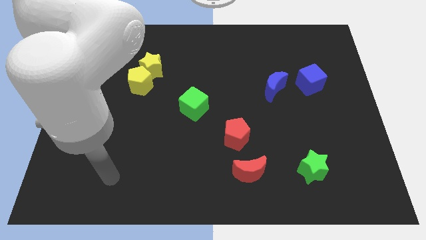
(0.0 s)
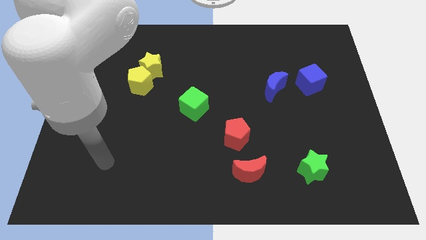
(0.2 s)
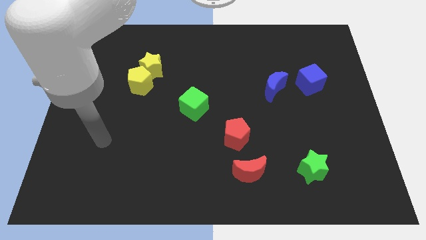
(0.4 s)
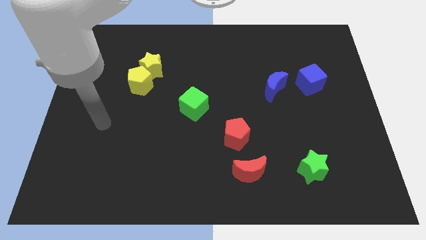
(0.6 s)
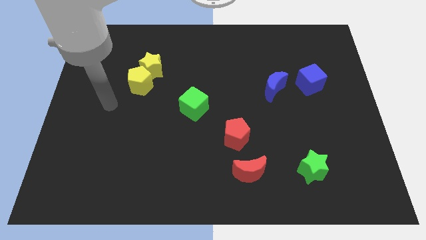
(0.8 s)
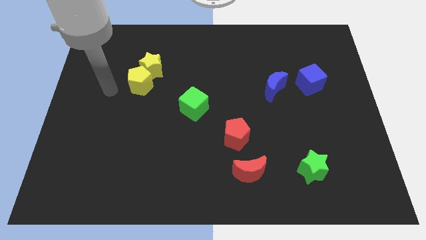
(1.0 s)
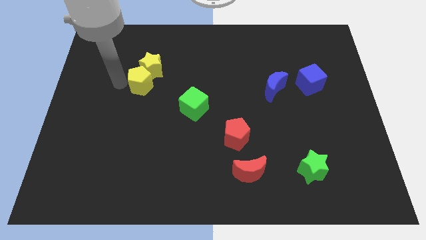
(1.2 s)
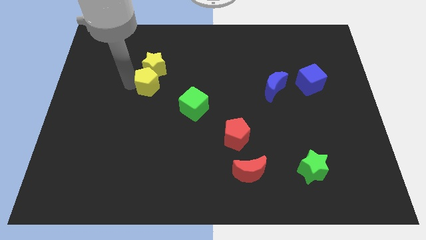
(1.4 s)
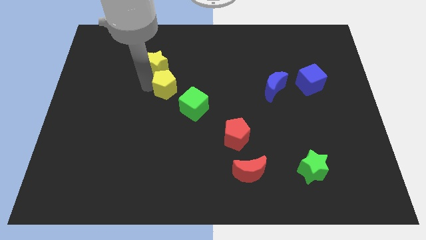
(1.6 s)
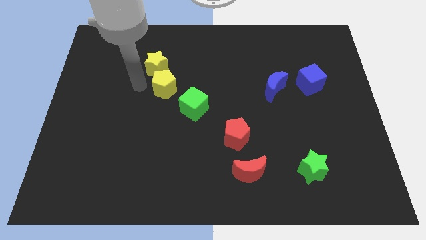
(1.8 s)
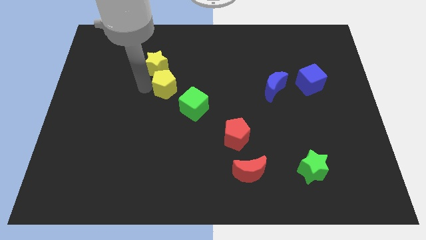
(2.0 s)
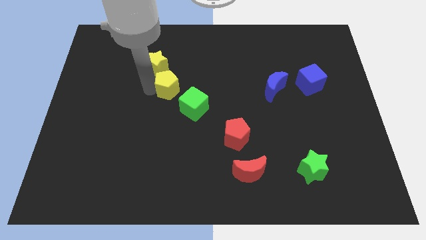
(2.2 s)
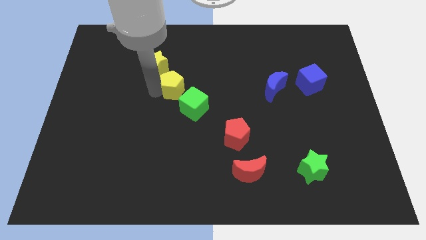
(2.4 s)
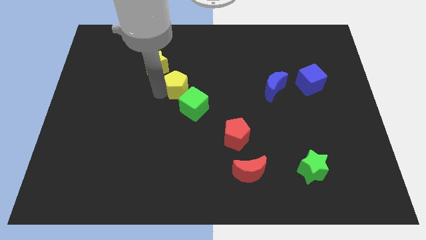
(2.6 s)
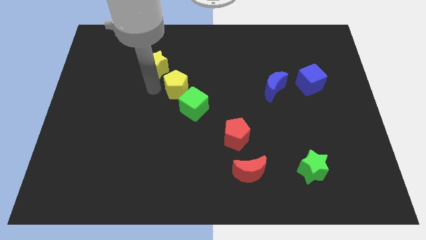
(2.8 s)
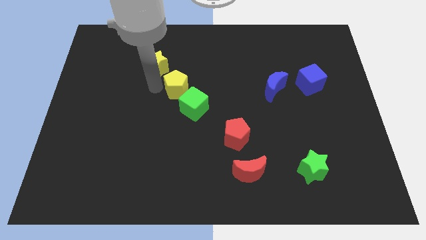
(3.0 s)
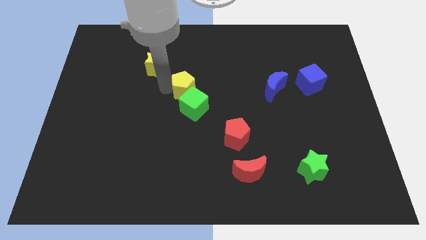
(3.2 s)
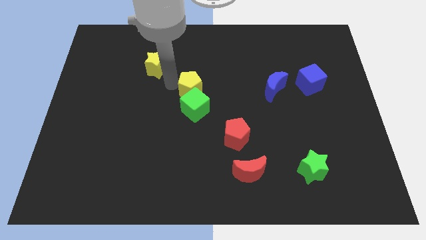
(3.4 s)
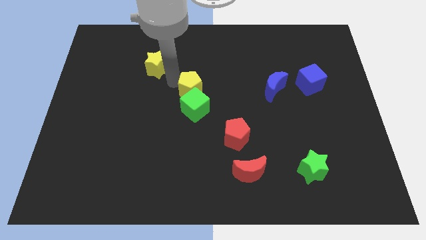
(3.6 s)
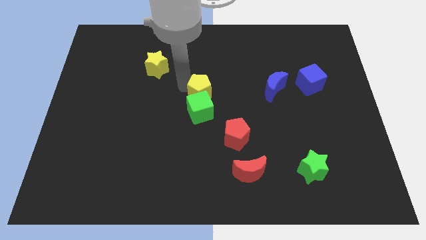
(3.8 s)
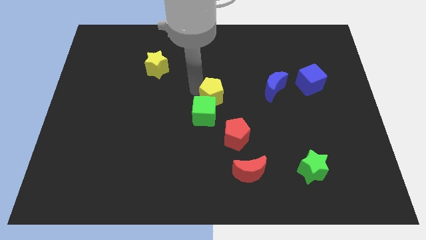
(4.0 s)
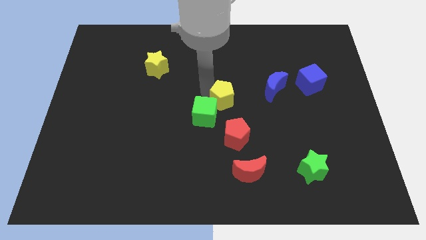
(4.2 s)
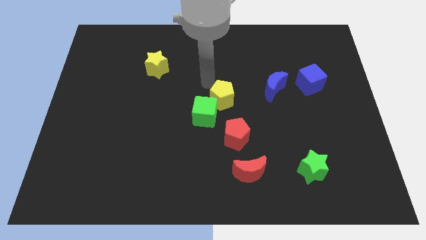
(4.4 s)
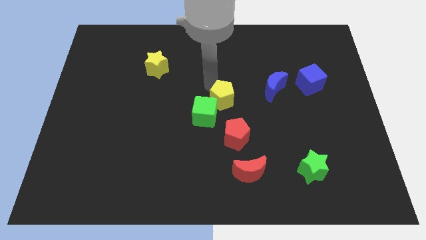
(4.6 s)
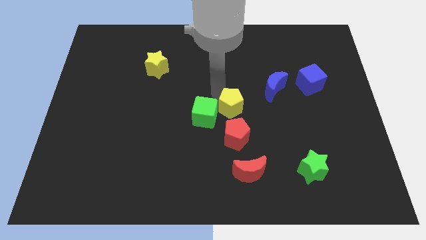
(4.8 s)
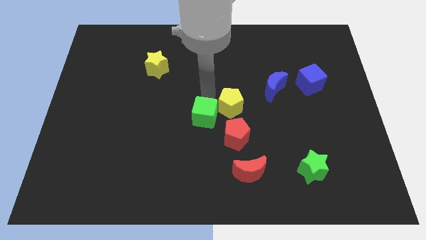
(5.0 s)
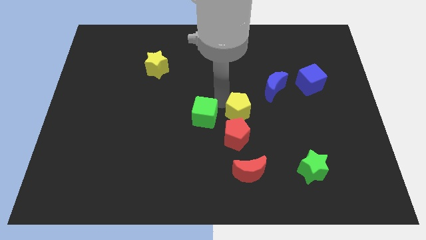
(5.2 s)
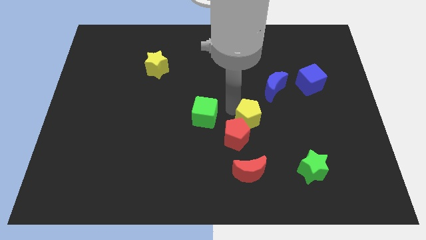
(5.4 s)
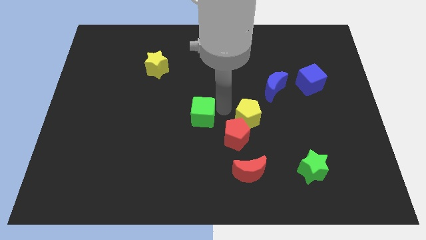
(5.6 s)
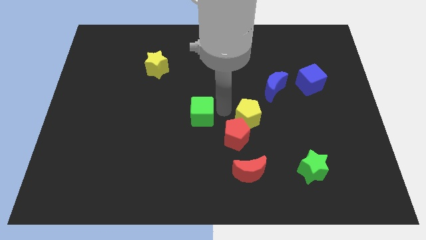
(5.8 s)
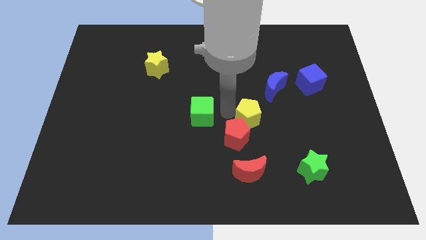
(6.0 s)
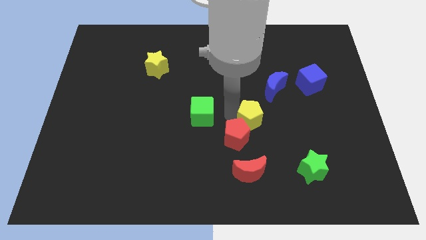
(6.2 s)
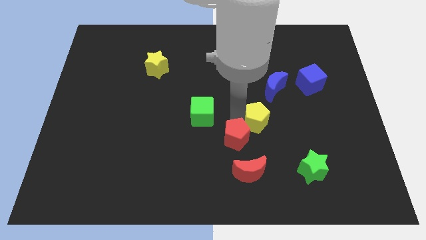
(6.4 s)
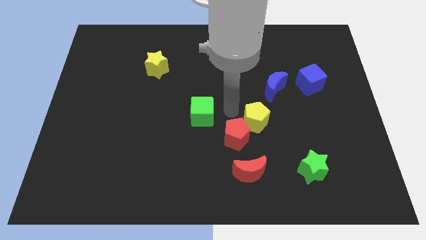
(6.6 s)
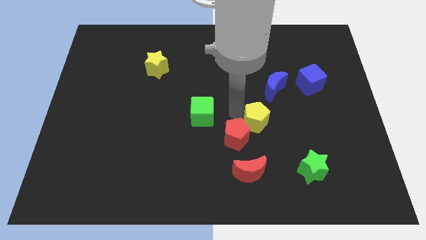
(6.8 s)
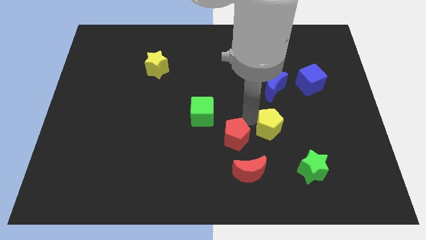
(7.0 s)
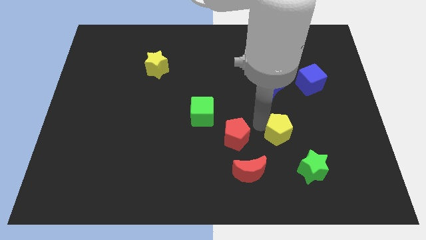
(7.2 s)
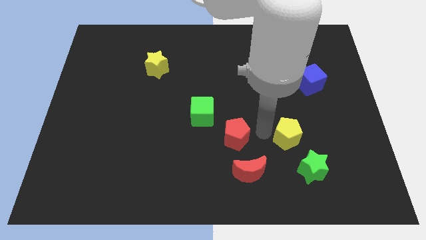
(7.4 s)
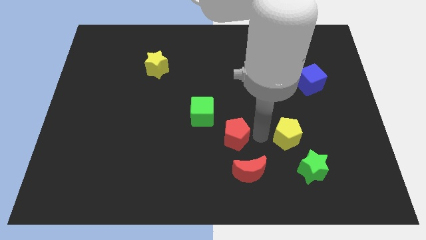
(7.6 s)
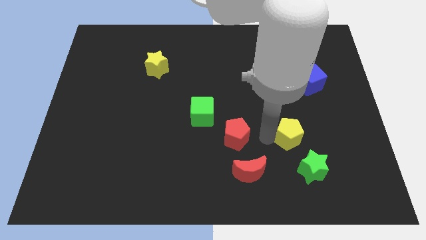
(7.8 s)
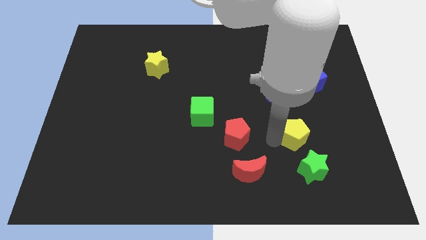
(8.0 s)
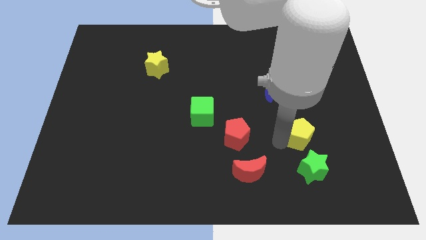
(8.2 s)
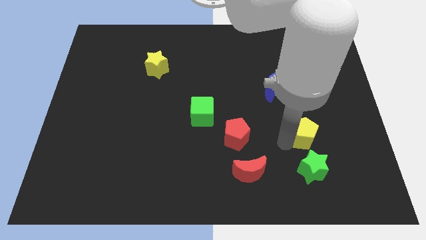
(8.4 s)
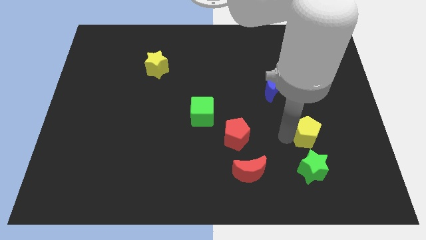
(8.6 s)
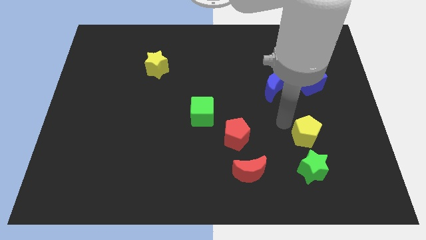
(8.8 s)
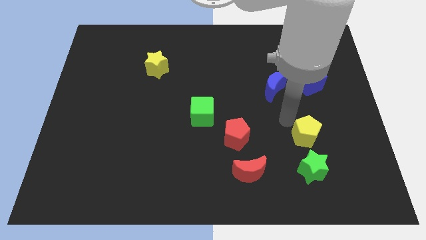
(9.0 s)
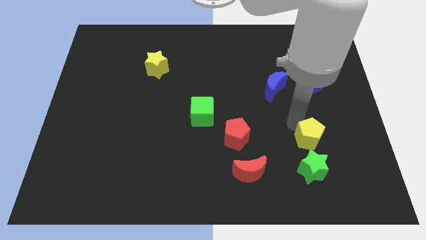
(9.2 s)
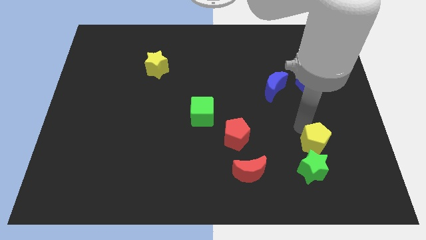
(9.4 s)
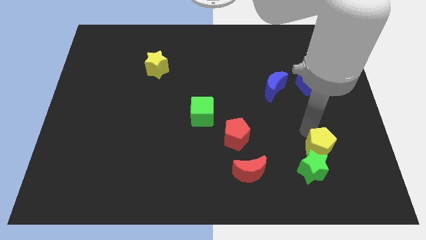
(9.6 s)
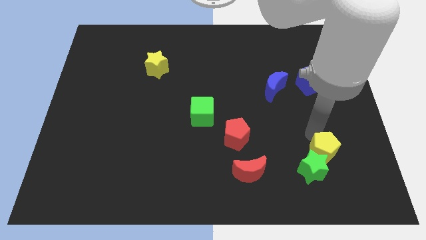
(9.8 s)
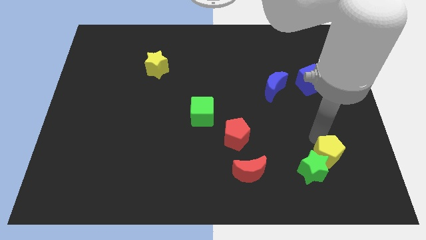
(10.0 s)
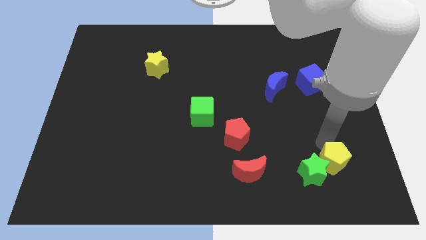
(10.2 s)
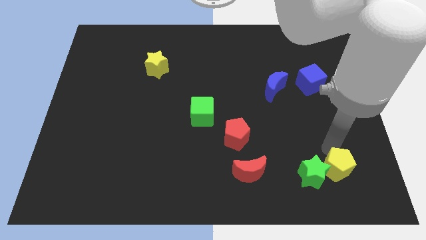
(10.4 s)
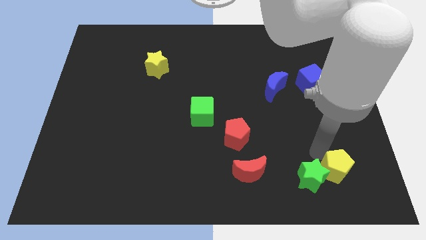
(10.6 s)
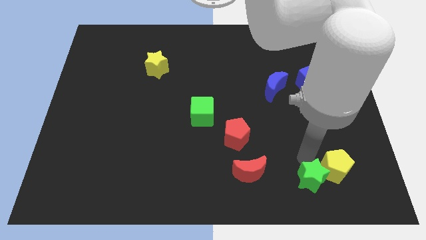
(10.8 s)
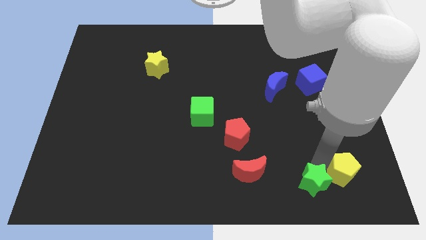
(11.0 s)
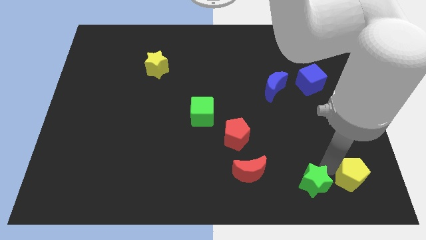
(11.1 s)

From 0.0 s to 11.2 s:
put the yellow pentagon to the lower right corner
